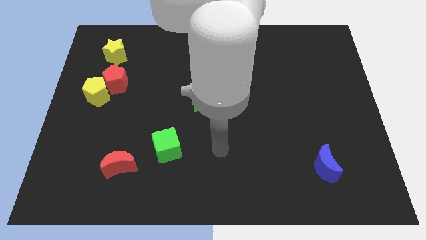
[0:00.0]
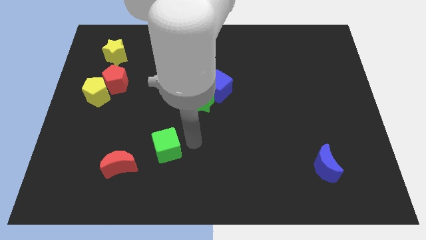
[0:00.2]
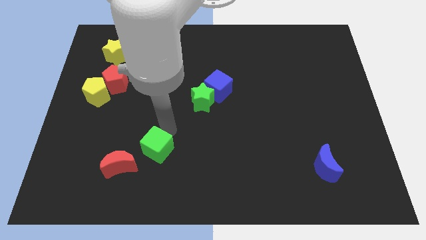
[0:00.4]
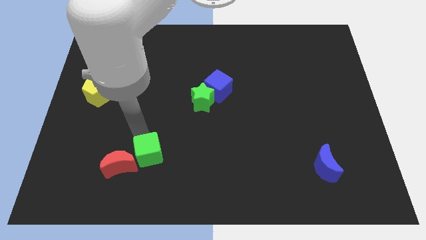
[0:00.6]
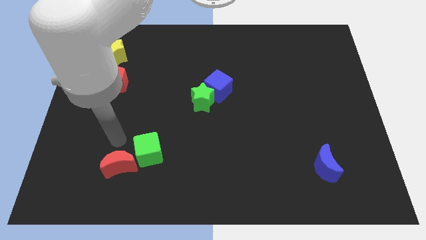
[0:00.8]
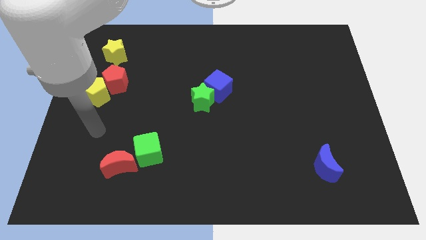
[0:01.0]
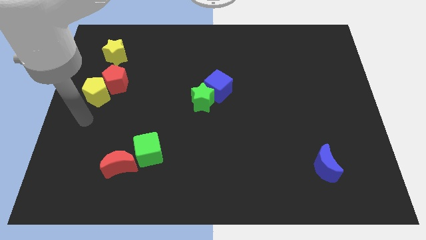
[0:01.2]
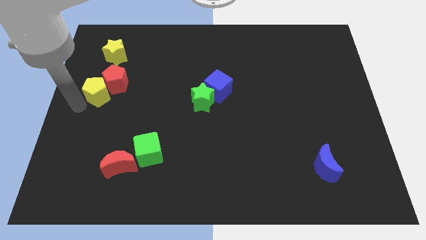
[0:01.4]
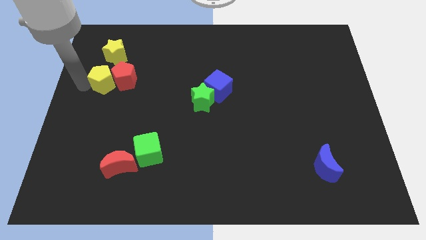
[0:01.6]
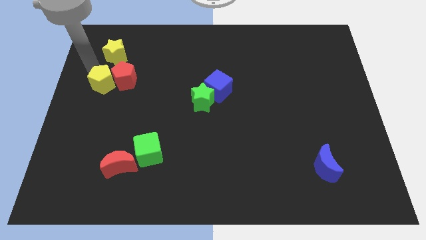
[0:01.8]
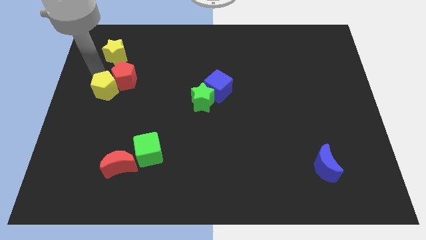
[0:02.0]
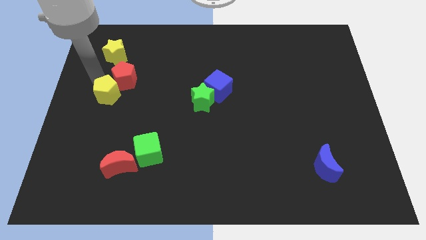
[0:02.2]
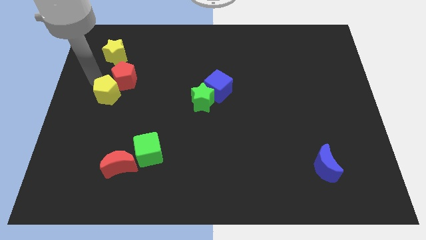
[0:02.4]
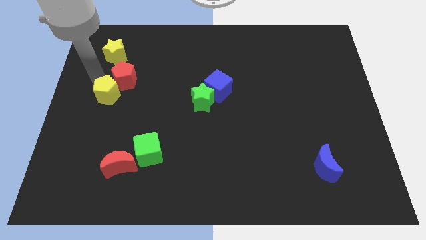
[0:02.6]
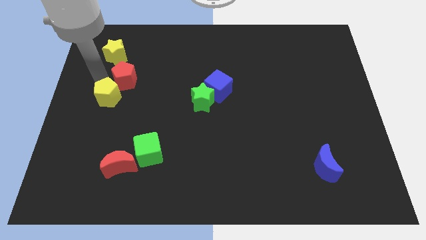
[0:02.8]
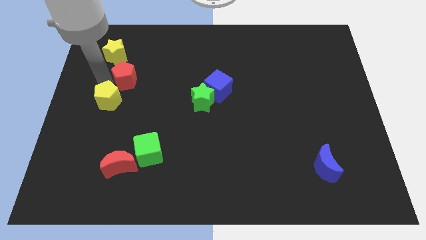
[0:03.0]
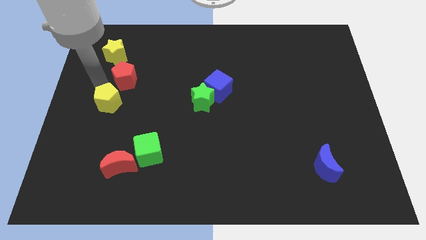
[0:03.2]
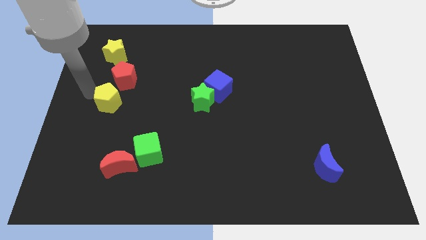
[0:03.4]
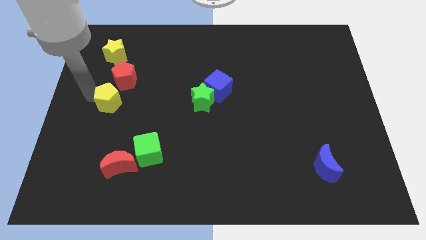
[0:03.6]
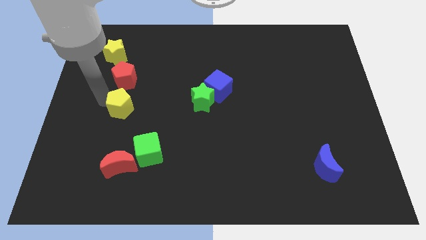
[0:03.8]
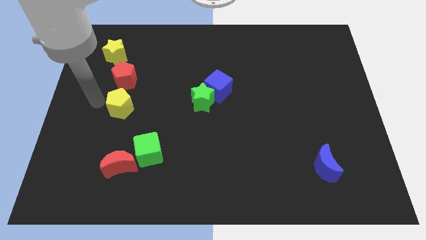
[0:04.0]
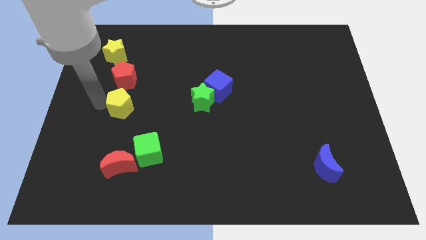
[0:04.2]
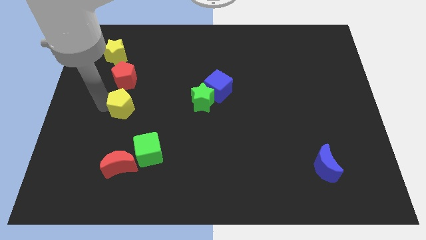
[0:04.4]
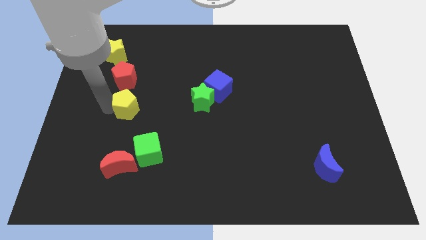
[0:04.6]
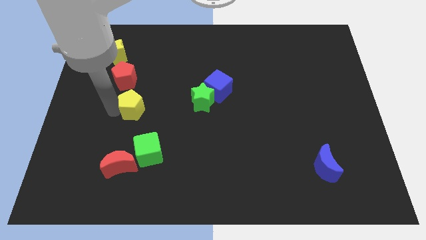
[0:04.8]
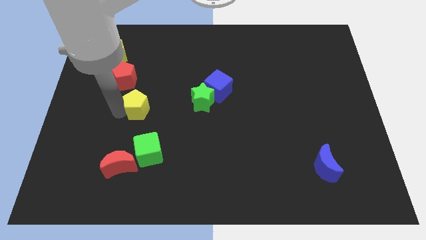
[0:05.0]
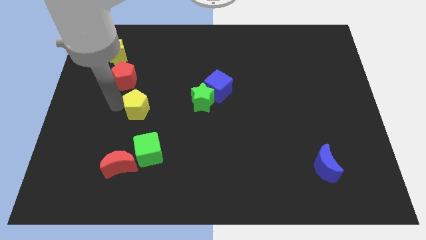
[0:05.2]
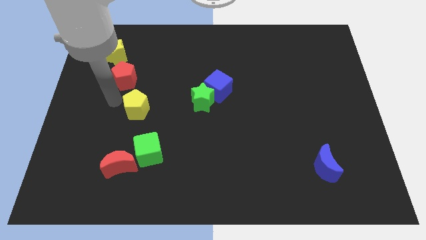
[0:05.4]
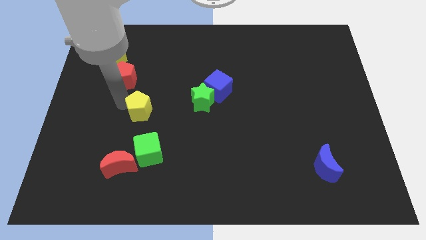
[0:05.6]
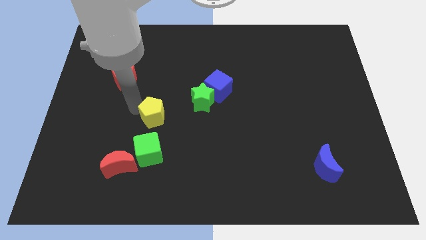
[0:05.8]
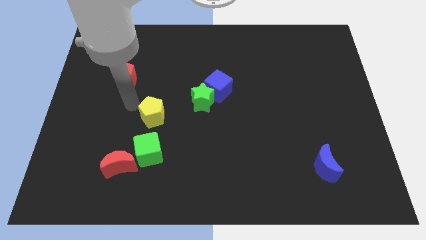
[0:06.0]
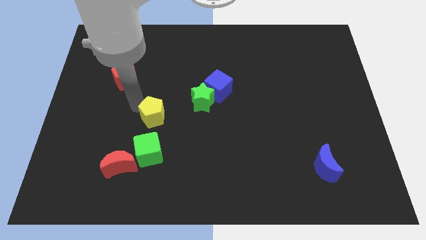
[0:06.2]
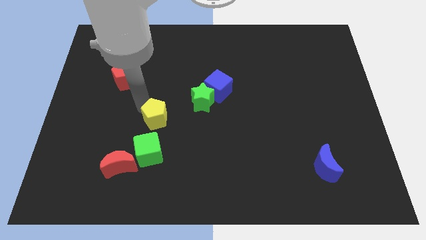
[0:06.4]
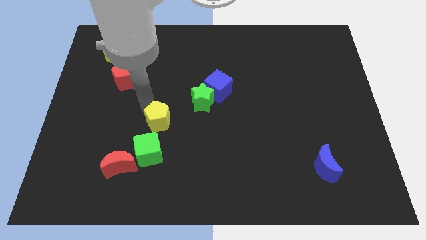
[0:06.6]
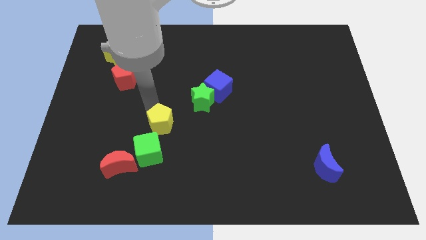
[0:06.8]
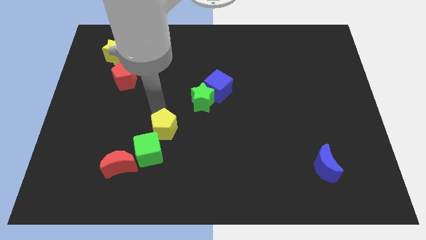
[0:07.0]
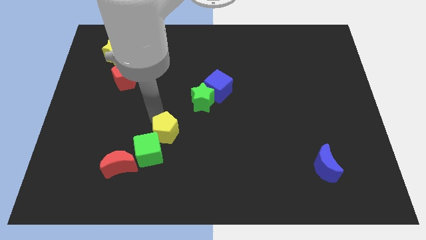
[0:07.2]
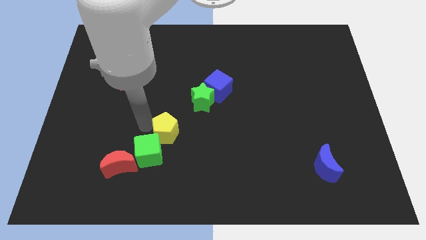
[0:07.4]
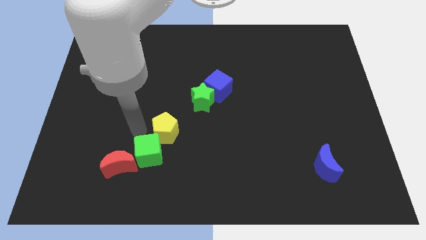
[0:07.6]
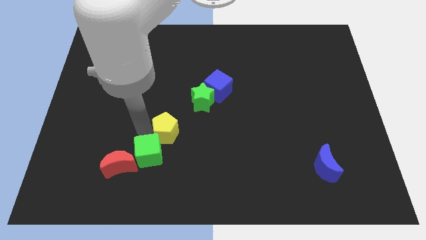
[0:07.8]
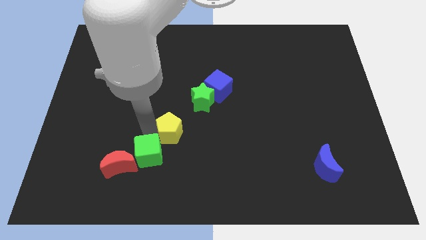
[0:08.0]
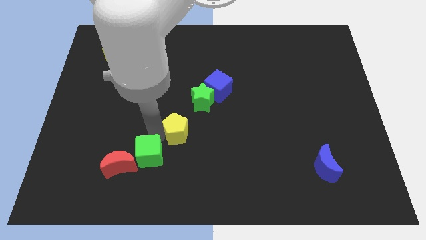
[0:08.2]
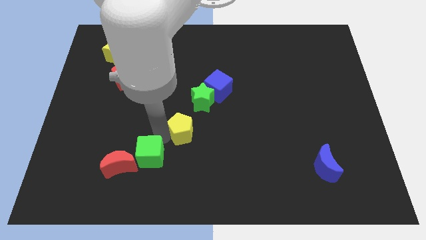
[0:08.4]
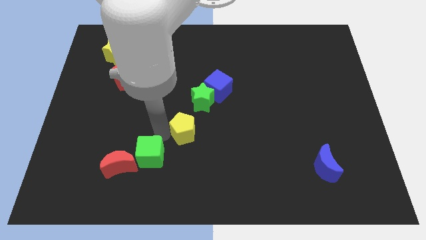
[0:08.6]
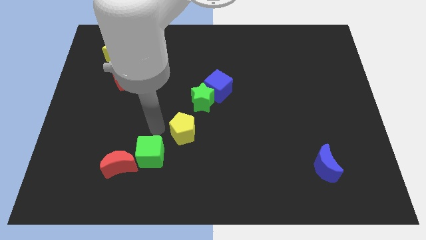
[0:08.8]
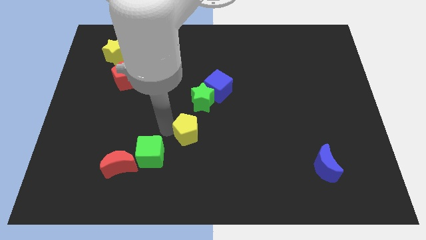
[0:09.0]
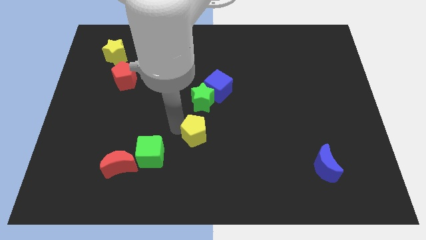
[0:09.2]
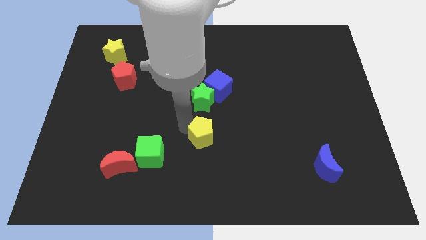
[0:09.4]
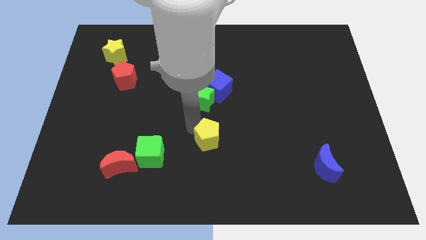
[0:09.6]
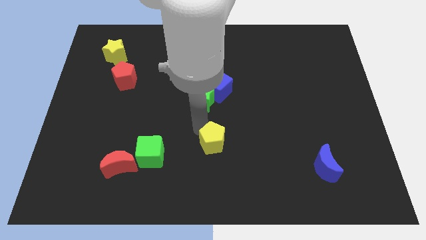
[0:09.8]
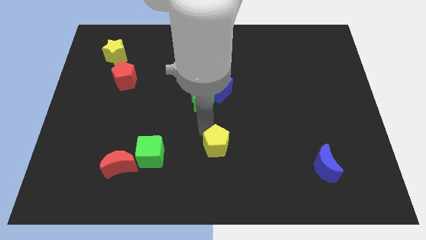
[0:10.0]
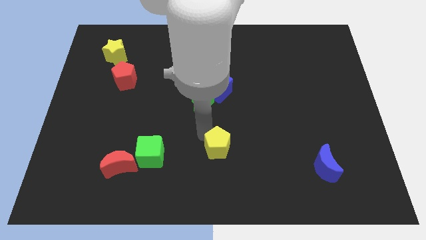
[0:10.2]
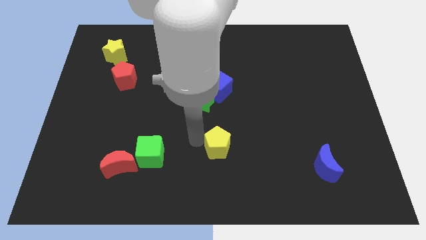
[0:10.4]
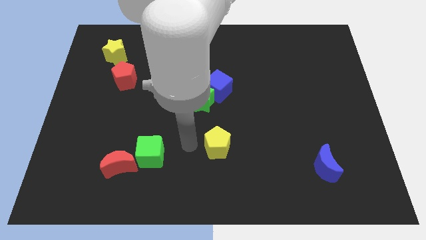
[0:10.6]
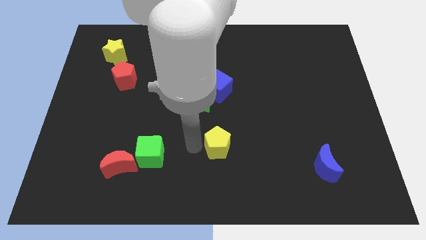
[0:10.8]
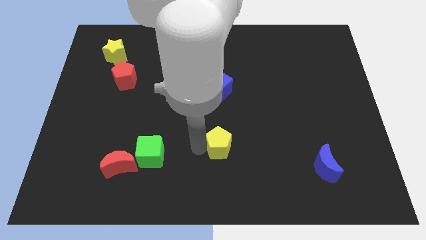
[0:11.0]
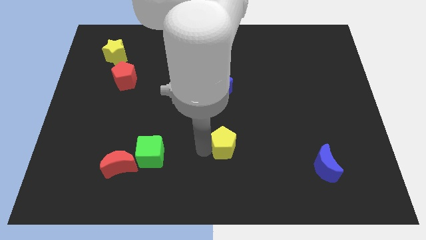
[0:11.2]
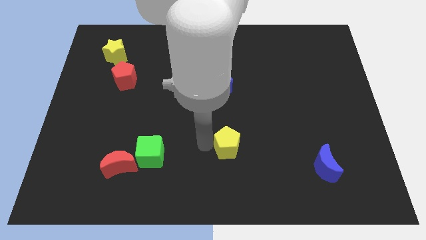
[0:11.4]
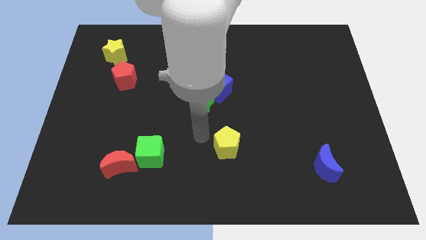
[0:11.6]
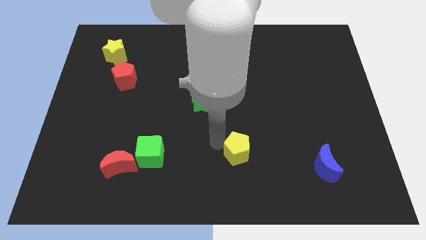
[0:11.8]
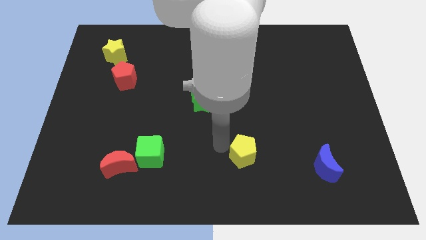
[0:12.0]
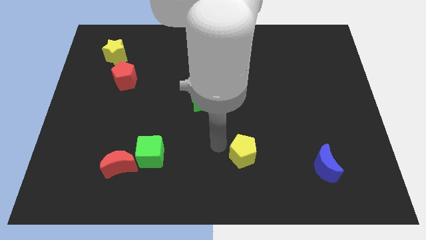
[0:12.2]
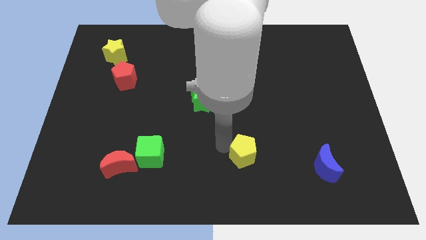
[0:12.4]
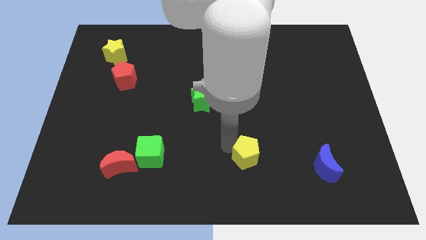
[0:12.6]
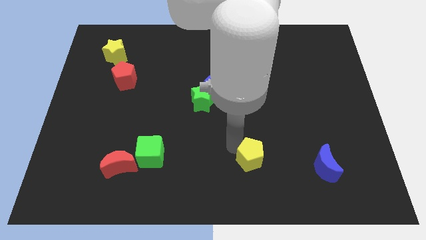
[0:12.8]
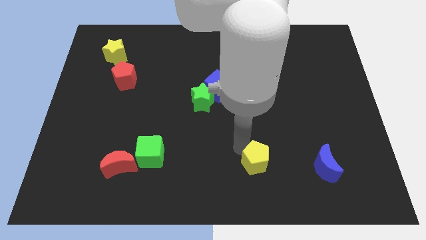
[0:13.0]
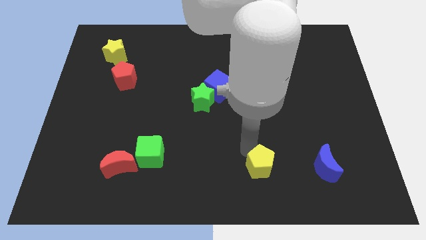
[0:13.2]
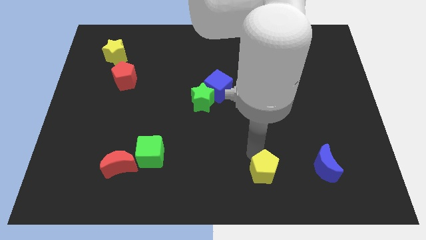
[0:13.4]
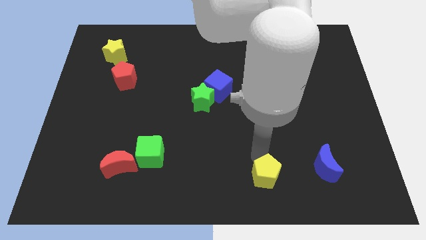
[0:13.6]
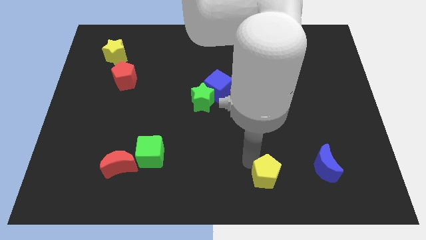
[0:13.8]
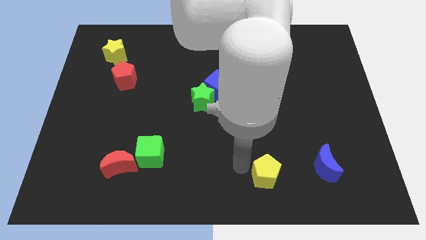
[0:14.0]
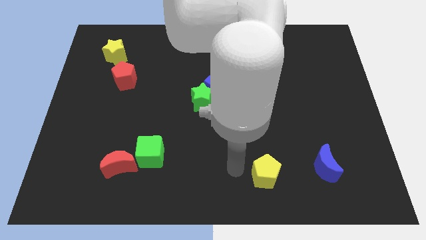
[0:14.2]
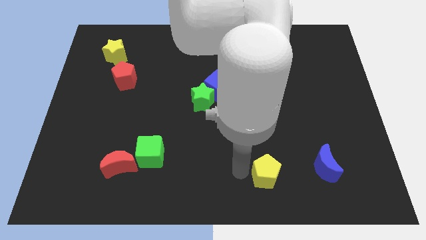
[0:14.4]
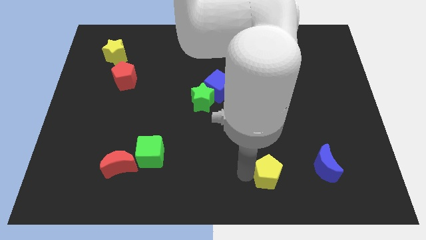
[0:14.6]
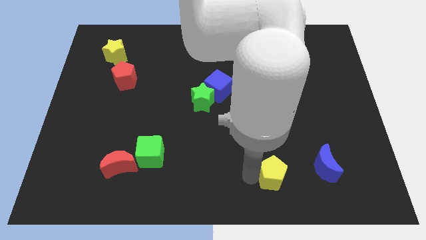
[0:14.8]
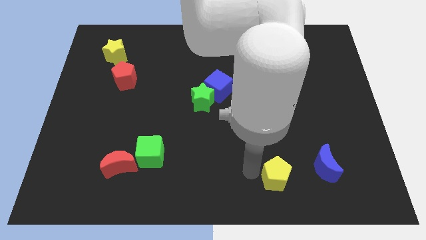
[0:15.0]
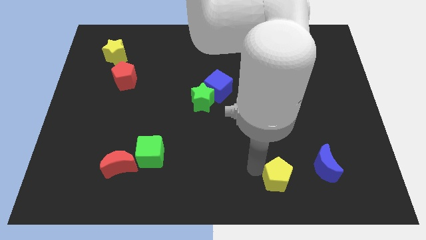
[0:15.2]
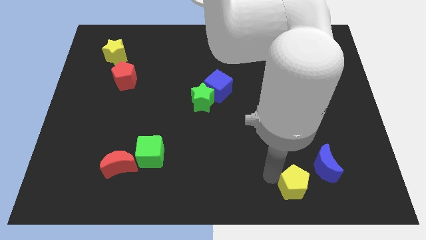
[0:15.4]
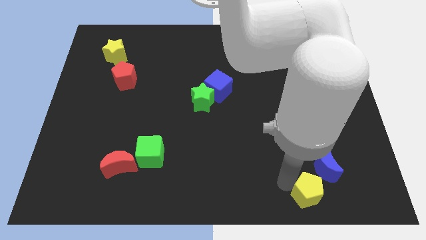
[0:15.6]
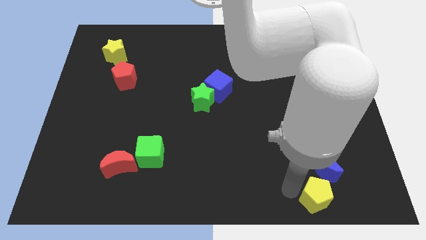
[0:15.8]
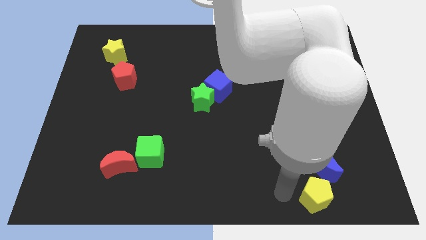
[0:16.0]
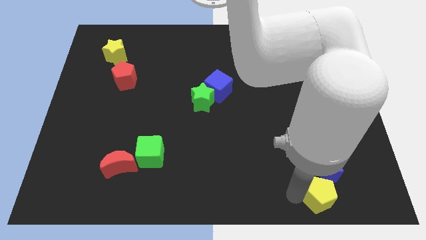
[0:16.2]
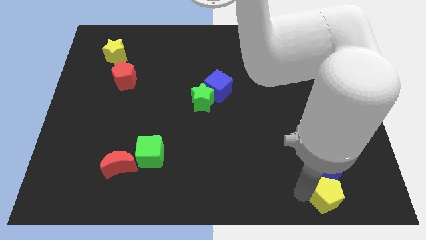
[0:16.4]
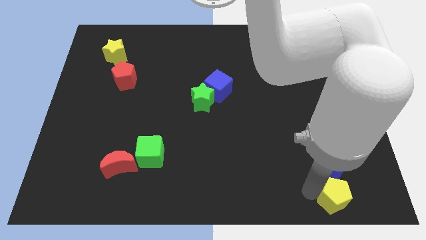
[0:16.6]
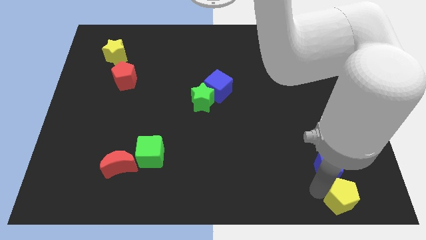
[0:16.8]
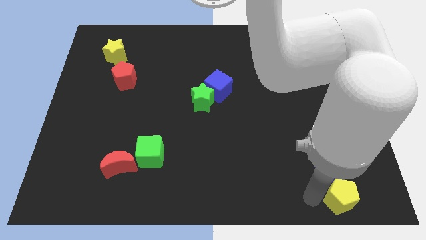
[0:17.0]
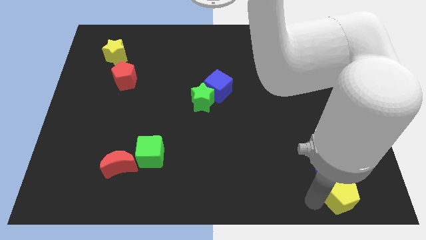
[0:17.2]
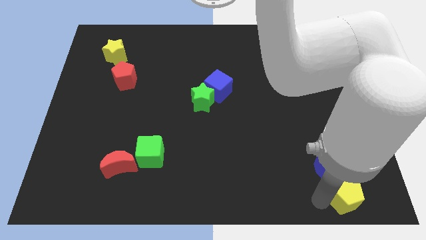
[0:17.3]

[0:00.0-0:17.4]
move the yellow pentagon to the lower right corner
